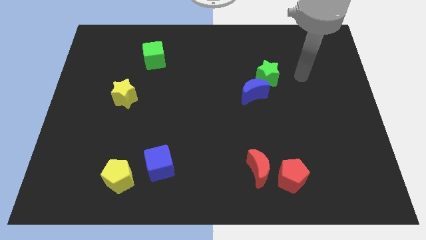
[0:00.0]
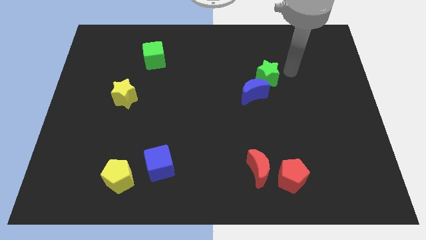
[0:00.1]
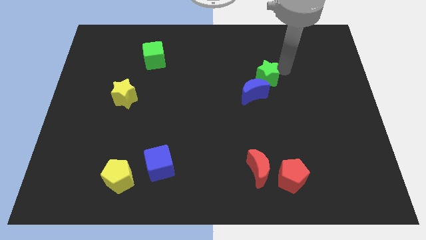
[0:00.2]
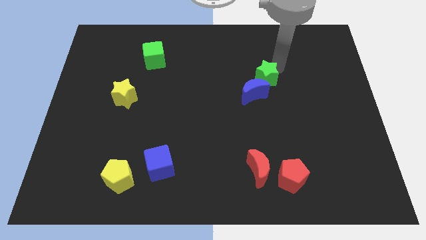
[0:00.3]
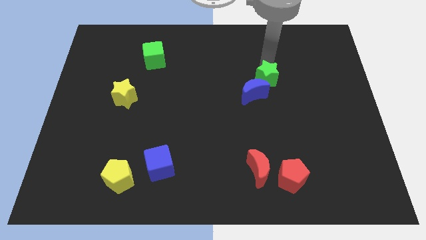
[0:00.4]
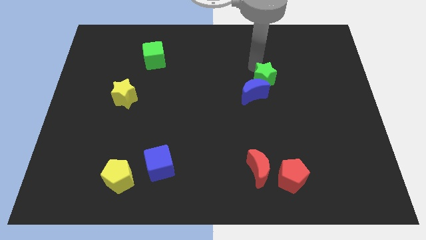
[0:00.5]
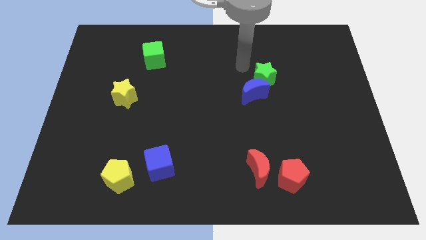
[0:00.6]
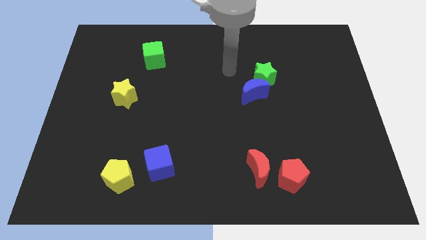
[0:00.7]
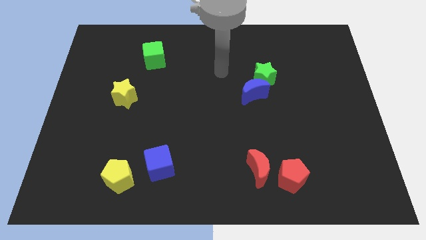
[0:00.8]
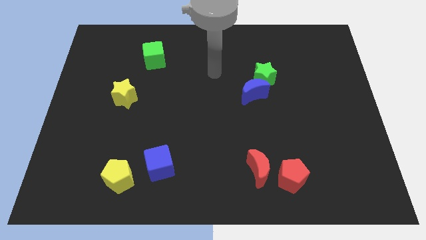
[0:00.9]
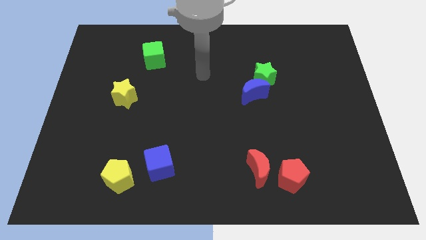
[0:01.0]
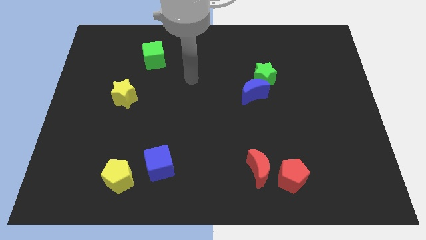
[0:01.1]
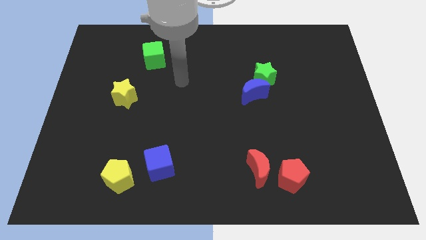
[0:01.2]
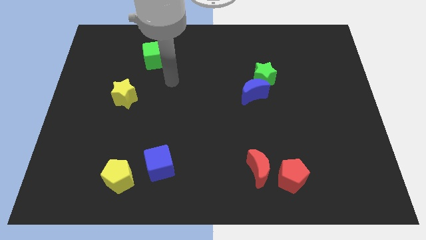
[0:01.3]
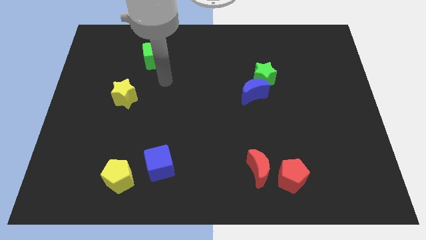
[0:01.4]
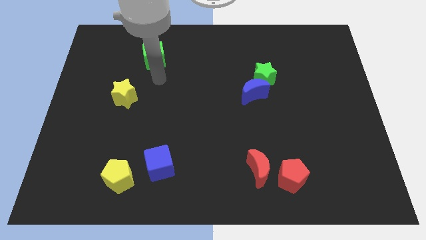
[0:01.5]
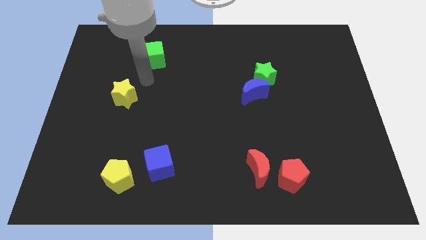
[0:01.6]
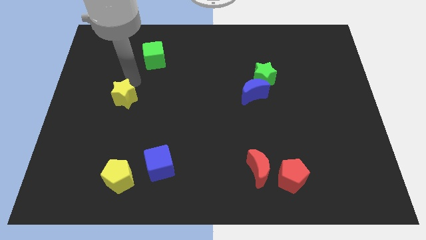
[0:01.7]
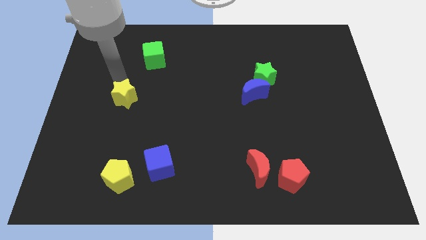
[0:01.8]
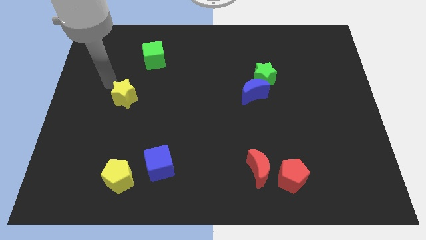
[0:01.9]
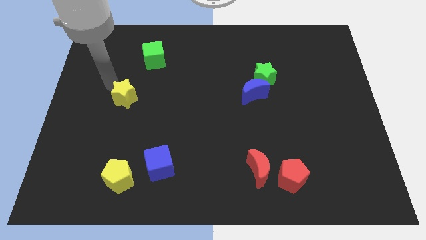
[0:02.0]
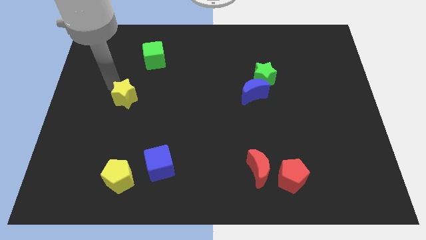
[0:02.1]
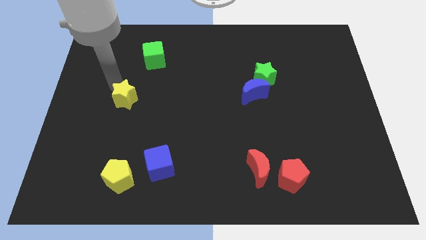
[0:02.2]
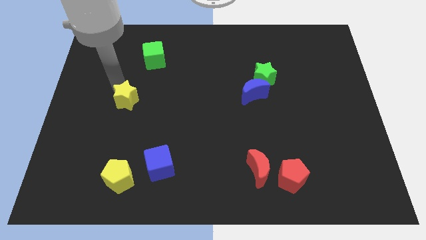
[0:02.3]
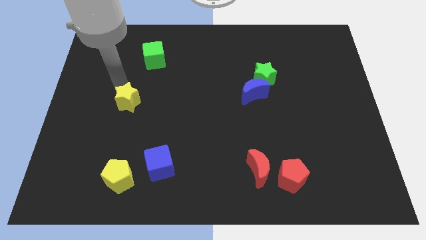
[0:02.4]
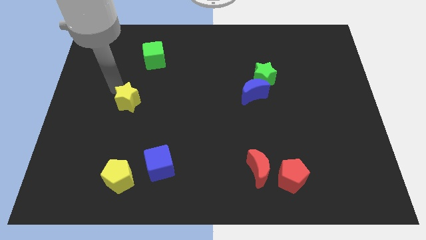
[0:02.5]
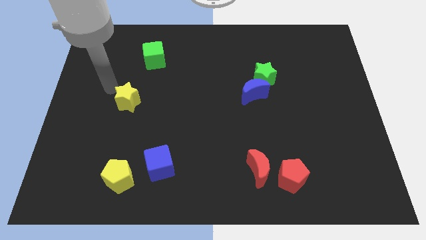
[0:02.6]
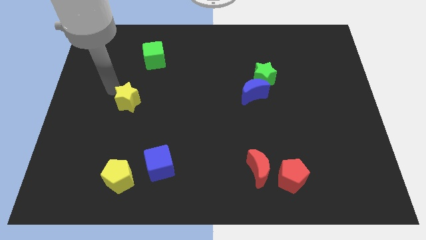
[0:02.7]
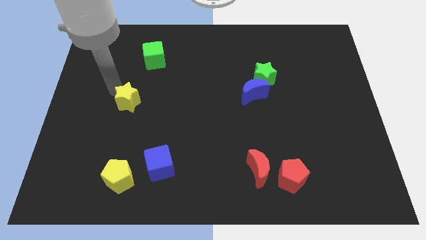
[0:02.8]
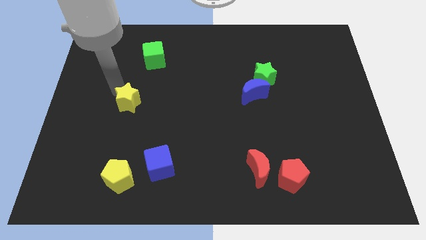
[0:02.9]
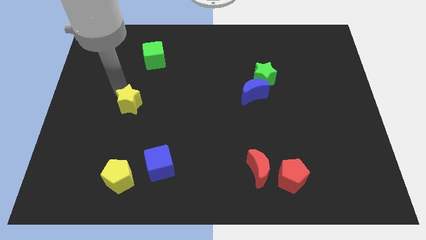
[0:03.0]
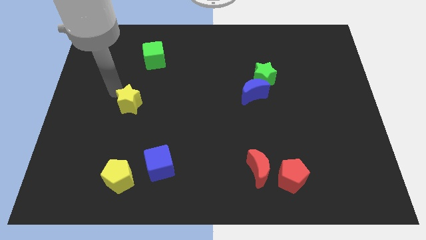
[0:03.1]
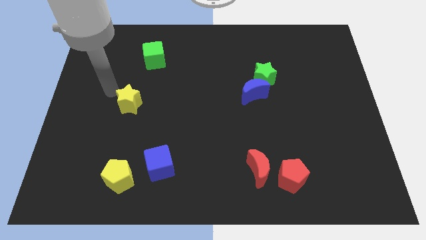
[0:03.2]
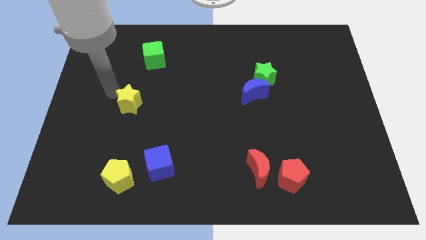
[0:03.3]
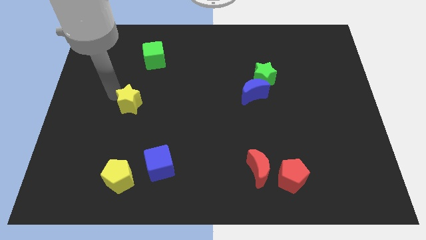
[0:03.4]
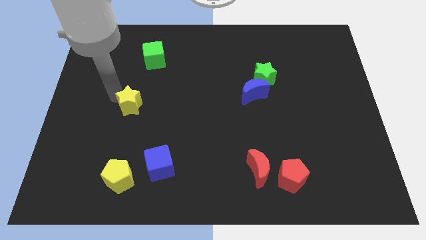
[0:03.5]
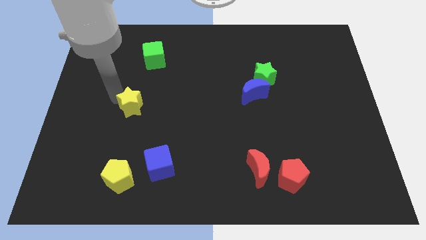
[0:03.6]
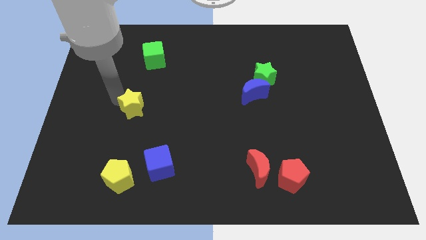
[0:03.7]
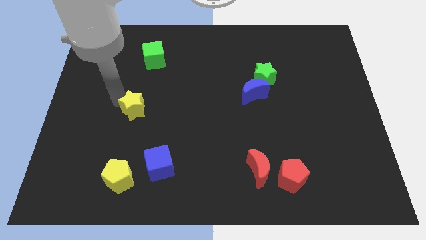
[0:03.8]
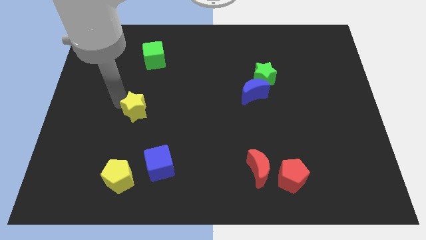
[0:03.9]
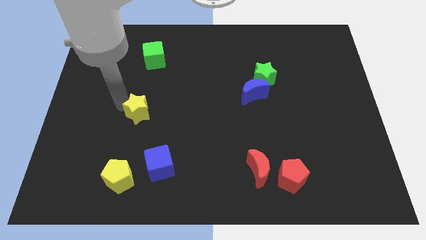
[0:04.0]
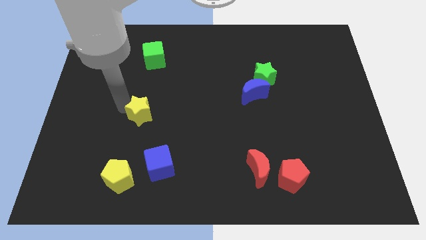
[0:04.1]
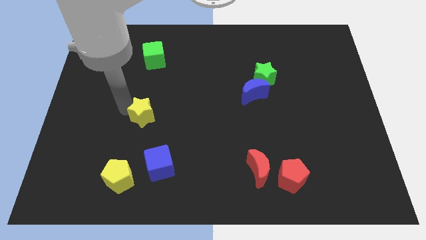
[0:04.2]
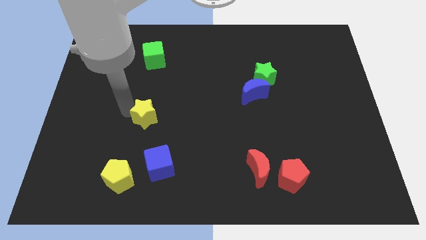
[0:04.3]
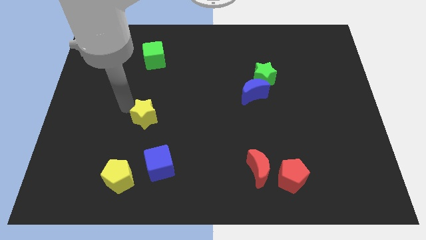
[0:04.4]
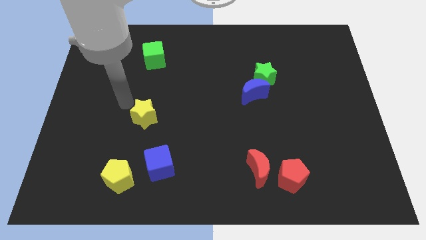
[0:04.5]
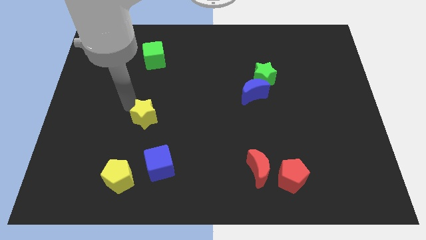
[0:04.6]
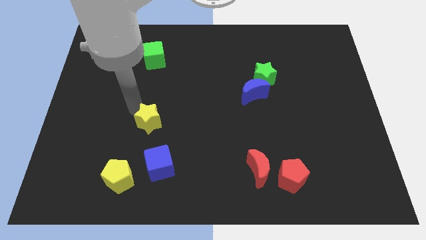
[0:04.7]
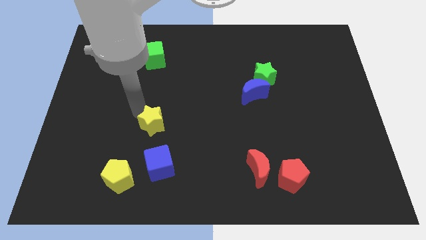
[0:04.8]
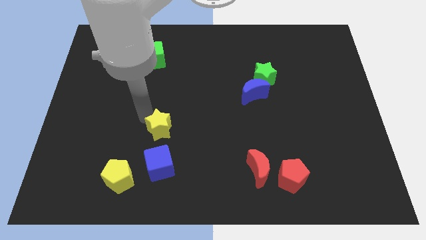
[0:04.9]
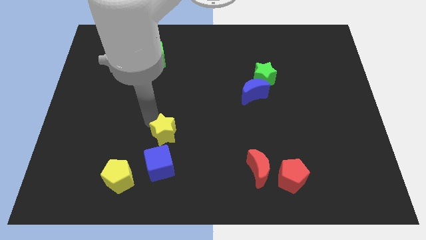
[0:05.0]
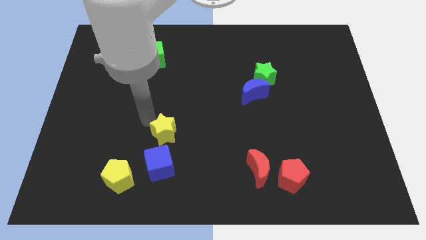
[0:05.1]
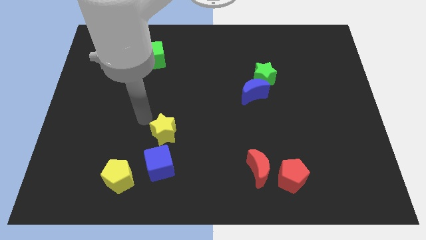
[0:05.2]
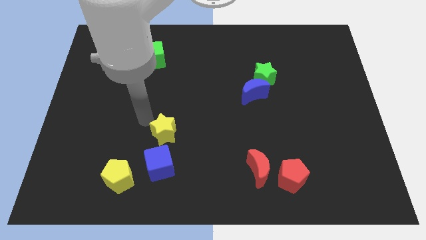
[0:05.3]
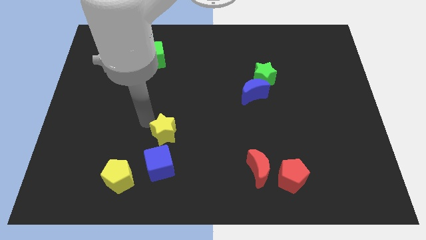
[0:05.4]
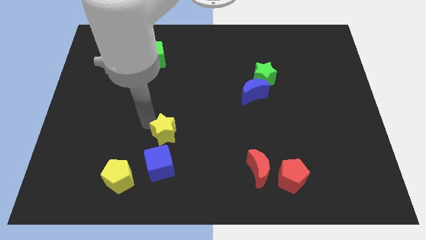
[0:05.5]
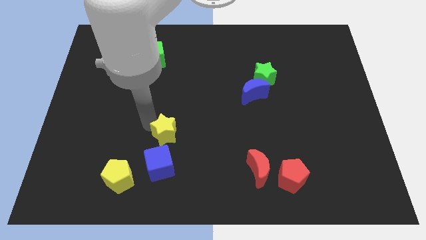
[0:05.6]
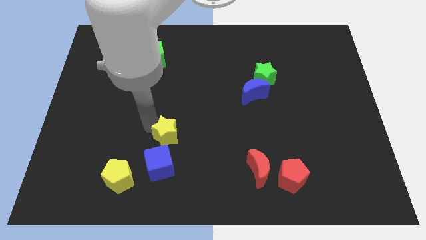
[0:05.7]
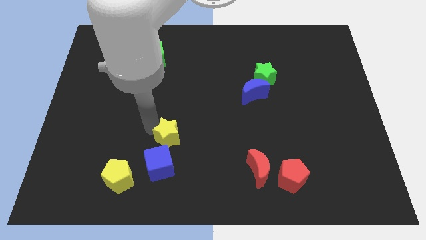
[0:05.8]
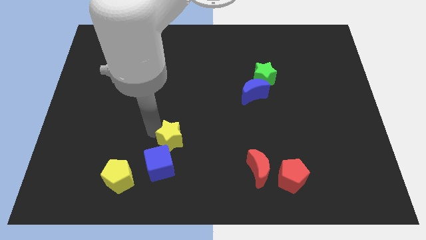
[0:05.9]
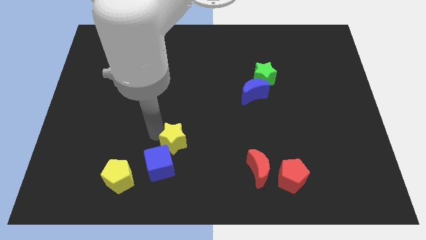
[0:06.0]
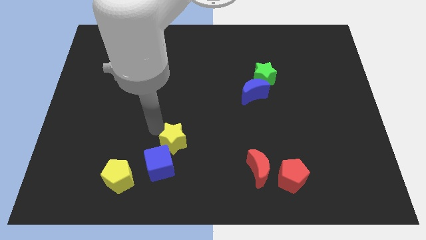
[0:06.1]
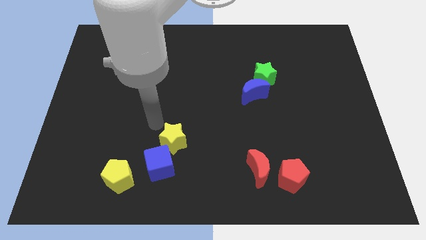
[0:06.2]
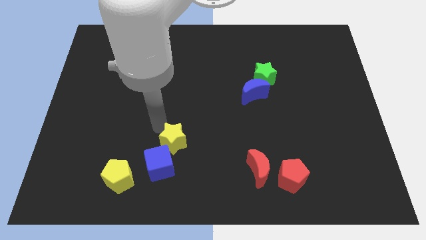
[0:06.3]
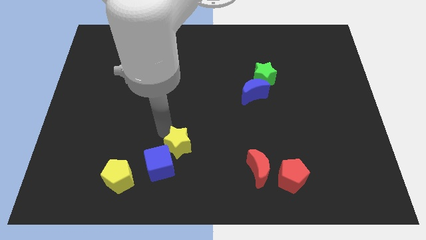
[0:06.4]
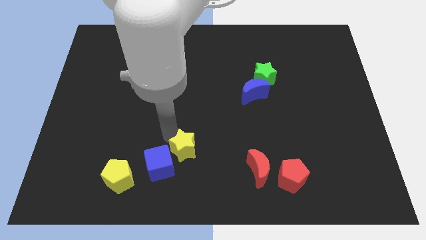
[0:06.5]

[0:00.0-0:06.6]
move the yellow star diagonally down and to the right

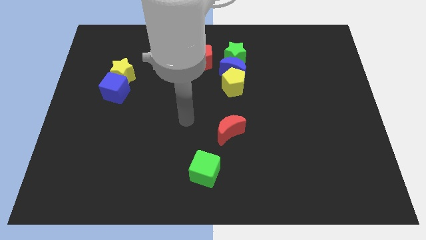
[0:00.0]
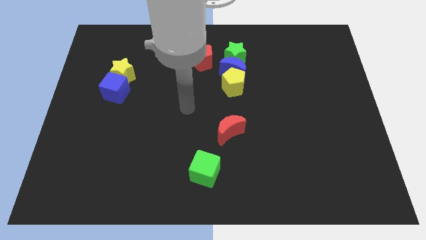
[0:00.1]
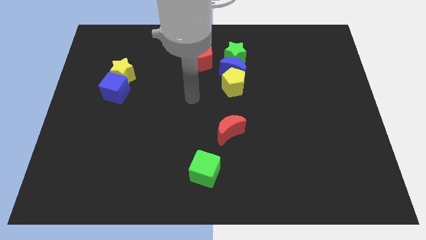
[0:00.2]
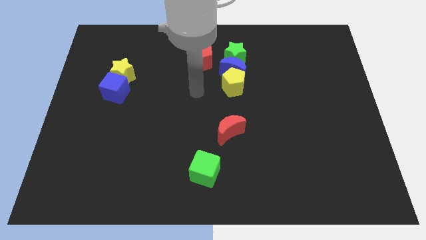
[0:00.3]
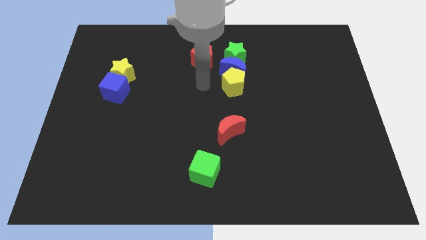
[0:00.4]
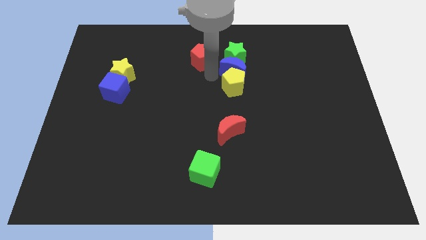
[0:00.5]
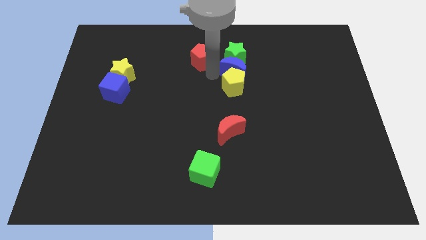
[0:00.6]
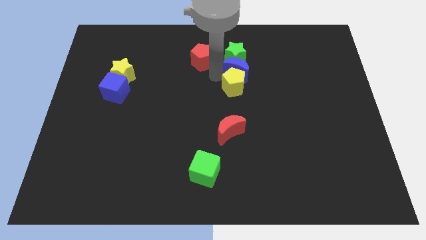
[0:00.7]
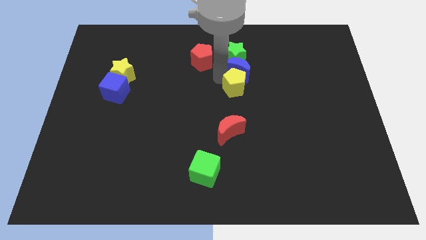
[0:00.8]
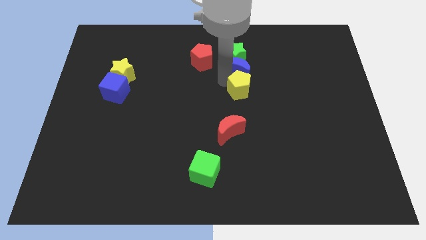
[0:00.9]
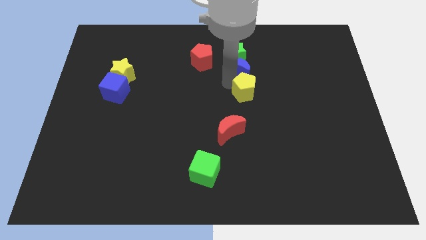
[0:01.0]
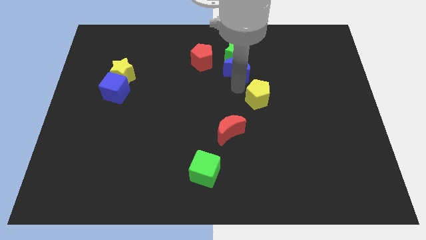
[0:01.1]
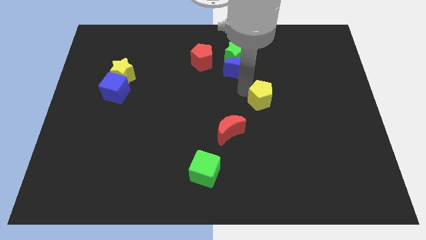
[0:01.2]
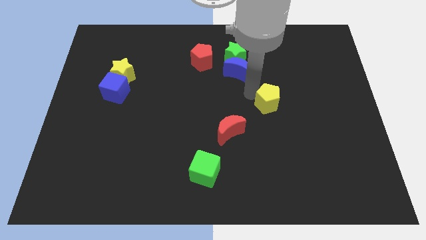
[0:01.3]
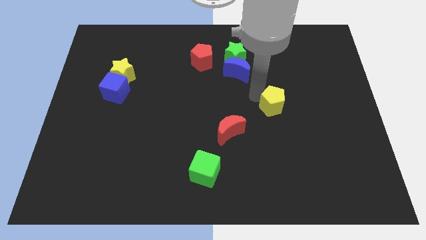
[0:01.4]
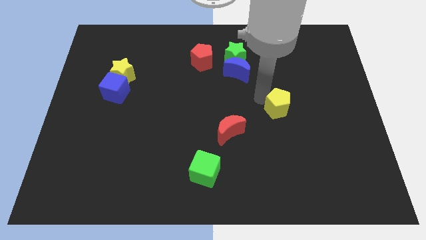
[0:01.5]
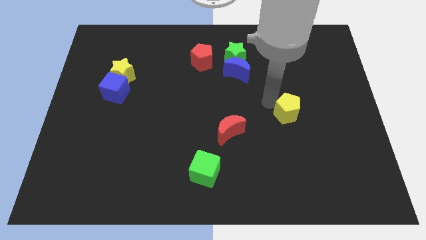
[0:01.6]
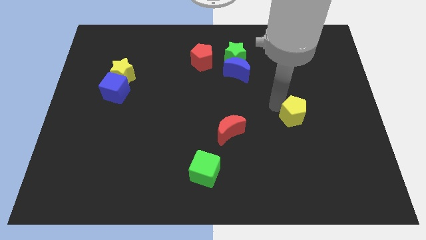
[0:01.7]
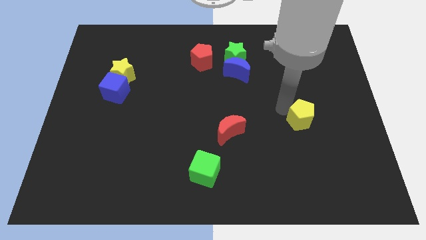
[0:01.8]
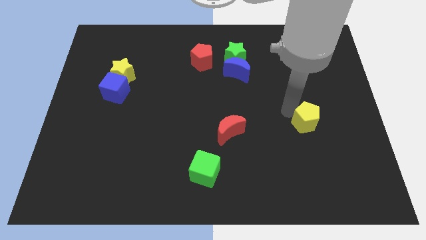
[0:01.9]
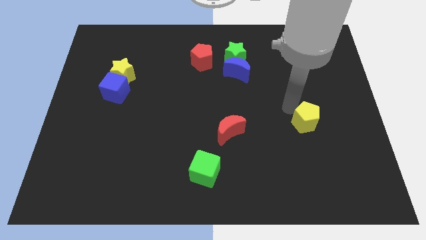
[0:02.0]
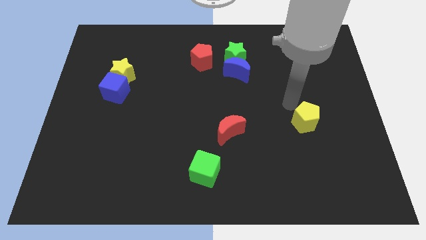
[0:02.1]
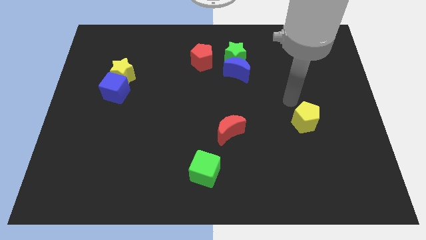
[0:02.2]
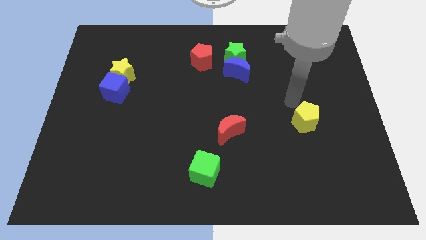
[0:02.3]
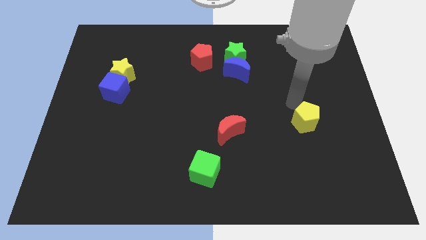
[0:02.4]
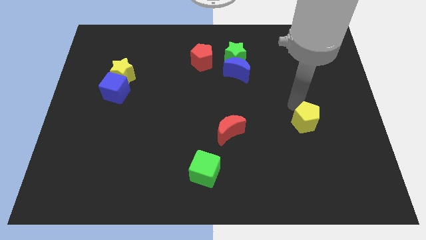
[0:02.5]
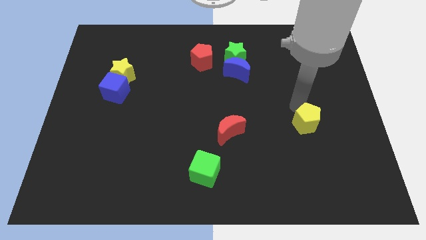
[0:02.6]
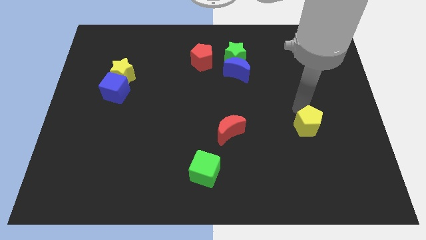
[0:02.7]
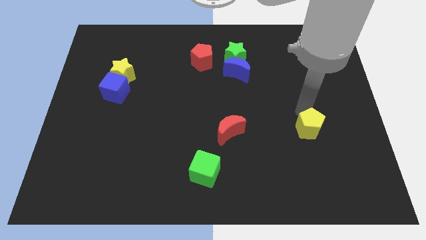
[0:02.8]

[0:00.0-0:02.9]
move the yellow pentagon down and then to the right
